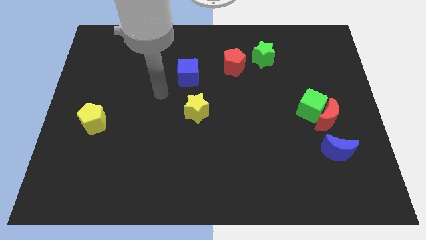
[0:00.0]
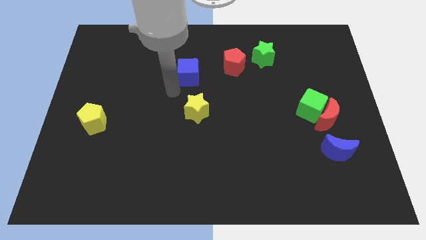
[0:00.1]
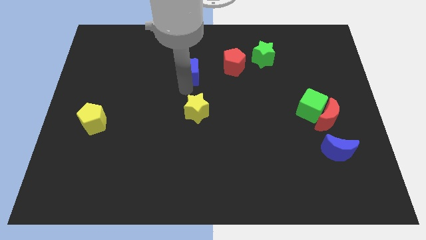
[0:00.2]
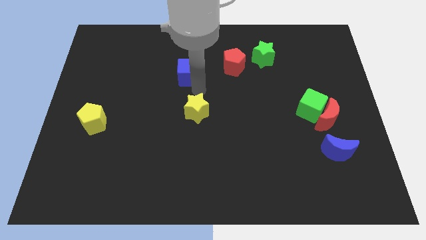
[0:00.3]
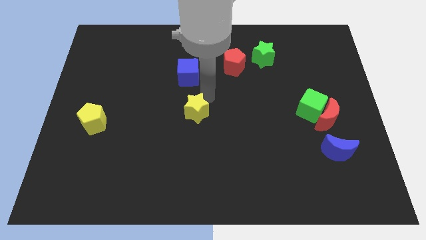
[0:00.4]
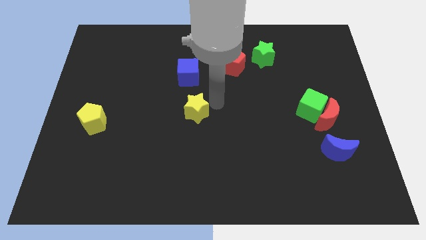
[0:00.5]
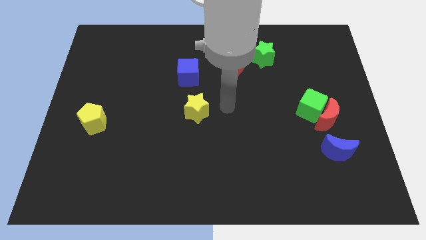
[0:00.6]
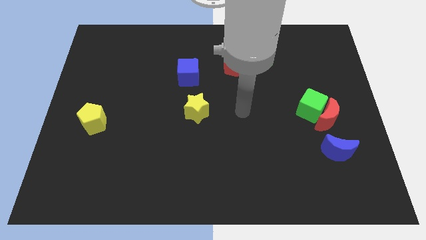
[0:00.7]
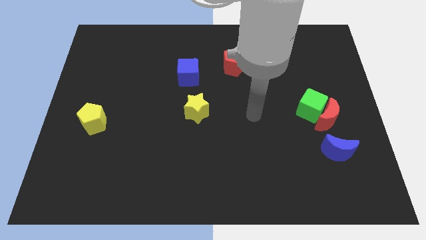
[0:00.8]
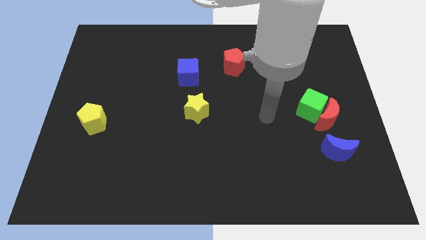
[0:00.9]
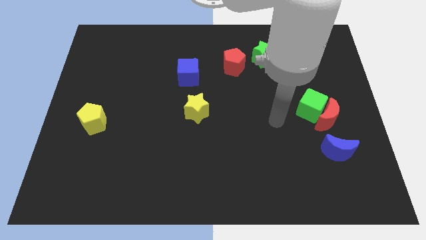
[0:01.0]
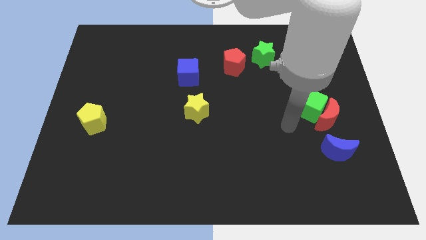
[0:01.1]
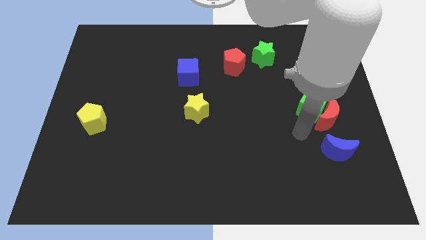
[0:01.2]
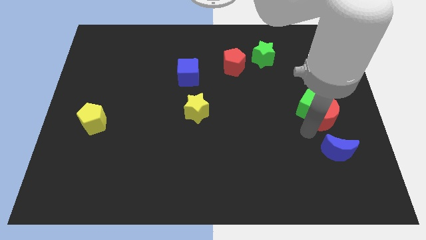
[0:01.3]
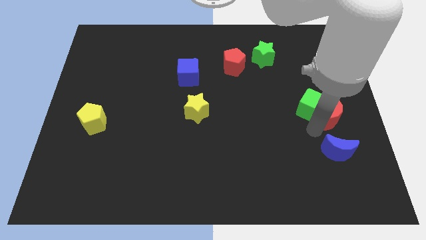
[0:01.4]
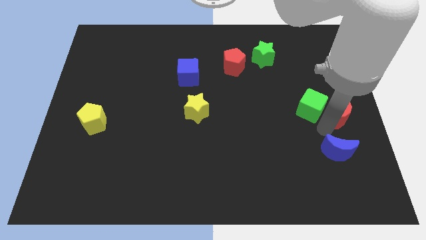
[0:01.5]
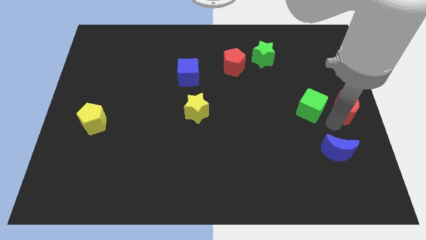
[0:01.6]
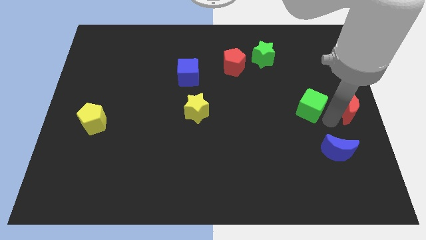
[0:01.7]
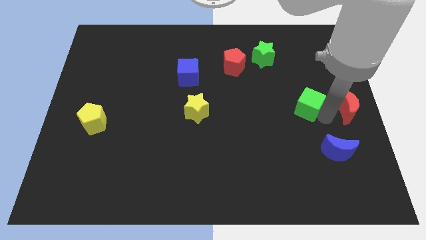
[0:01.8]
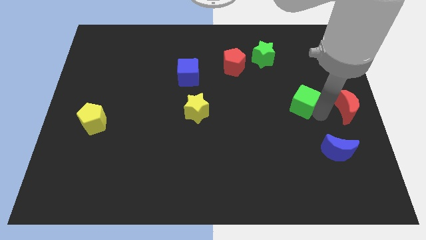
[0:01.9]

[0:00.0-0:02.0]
separate the green cube from the red moon

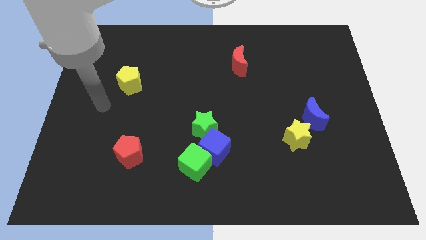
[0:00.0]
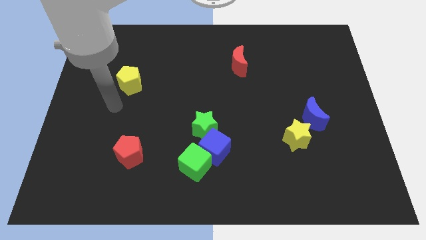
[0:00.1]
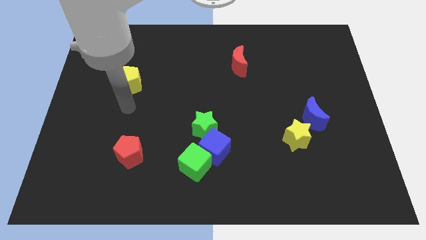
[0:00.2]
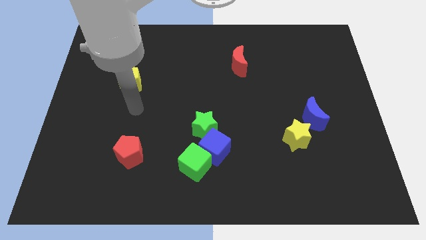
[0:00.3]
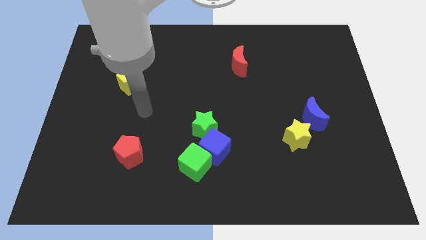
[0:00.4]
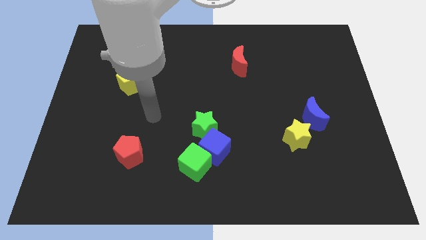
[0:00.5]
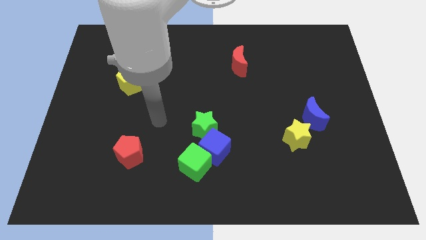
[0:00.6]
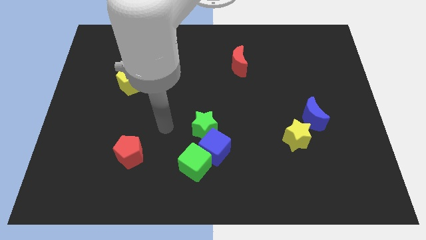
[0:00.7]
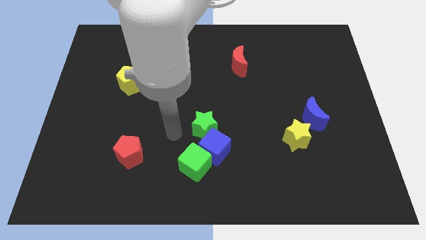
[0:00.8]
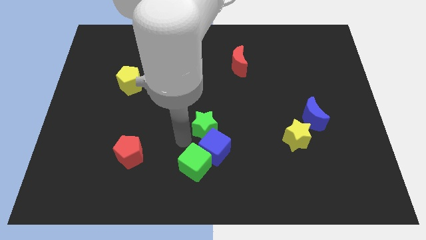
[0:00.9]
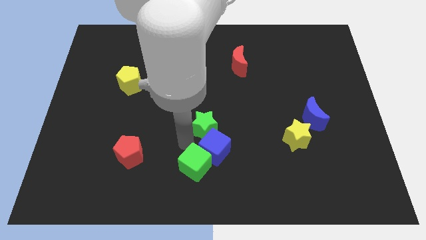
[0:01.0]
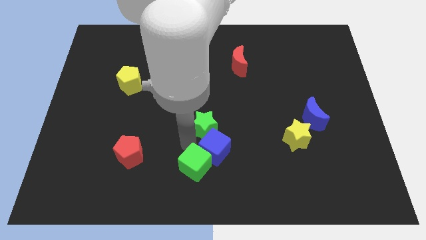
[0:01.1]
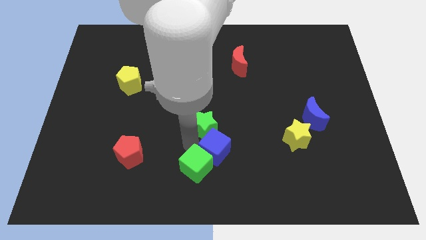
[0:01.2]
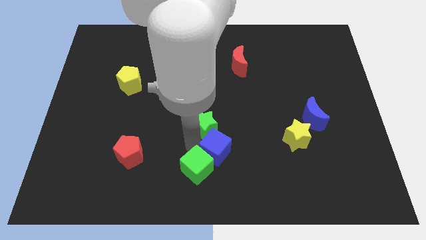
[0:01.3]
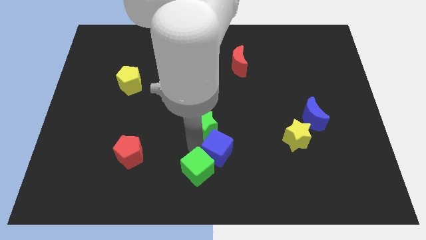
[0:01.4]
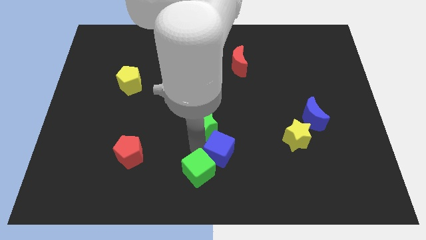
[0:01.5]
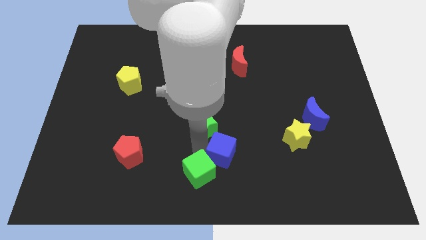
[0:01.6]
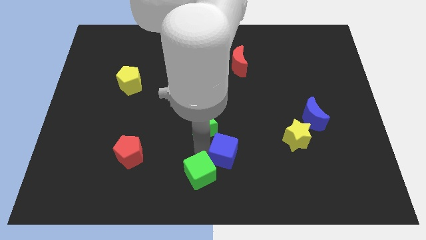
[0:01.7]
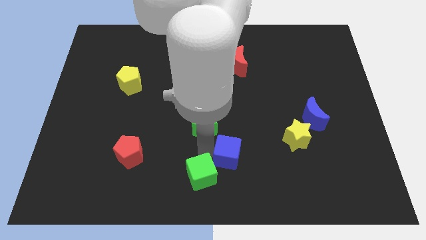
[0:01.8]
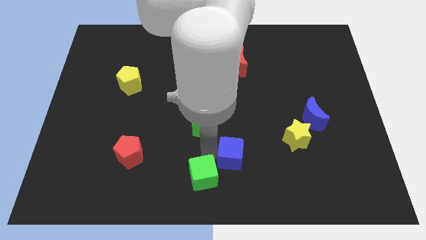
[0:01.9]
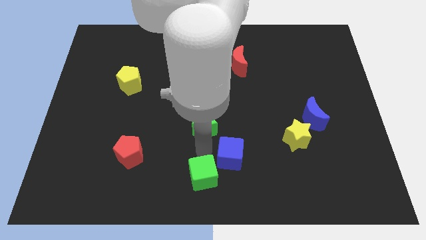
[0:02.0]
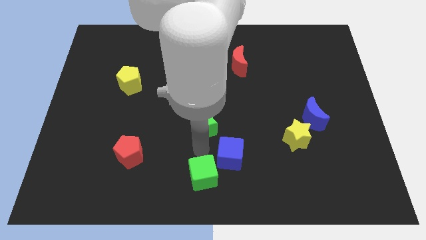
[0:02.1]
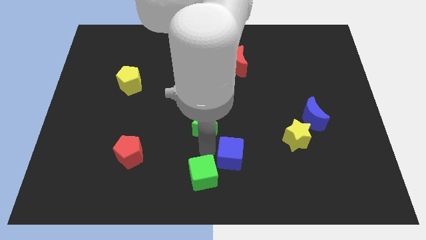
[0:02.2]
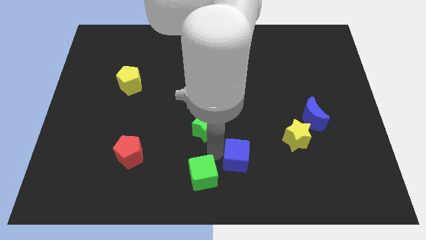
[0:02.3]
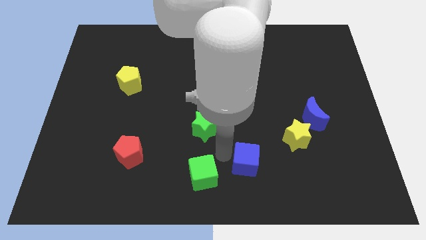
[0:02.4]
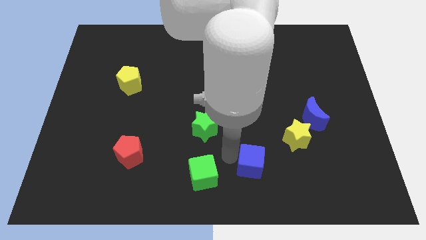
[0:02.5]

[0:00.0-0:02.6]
separate the blue cube from the green cube and green star

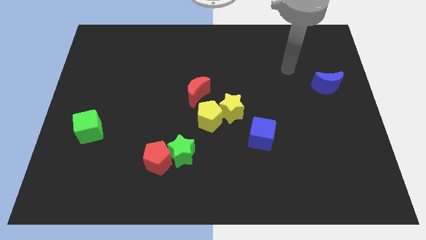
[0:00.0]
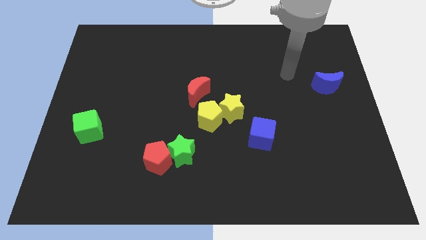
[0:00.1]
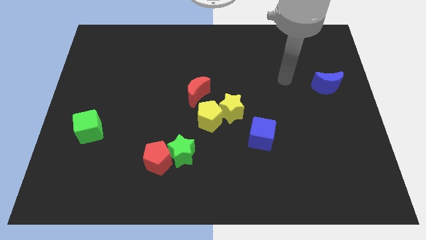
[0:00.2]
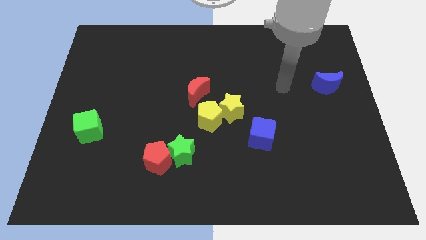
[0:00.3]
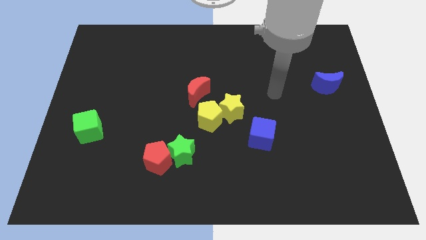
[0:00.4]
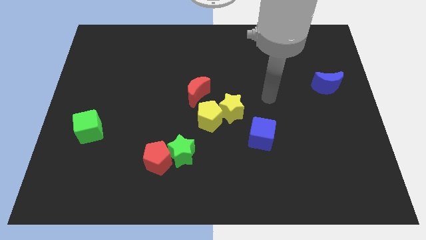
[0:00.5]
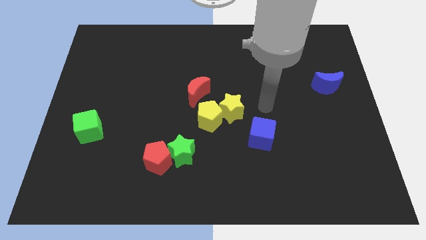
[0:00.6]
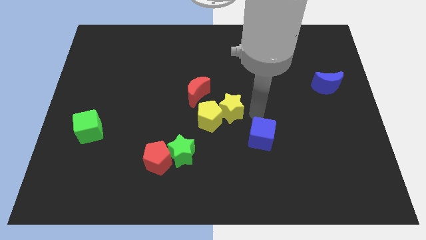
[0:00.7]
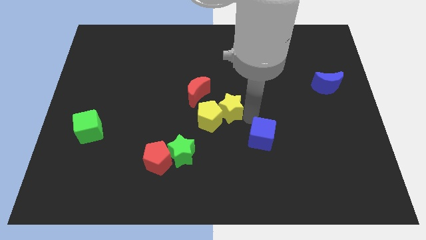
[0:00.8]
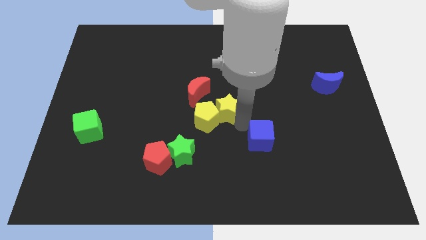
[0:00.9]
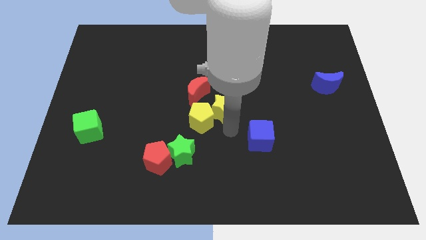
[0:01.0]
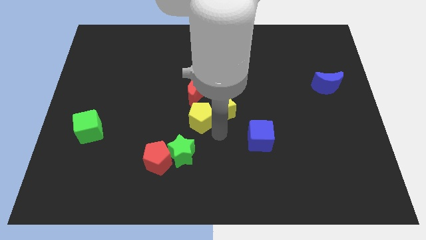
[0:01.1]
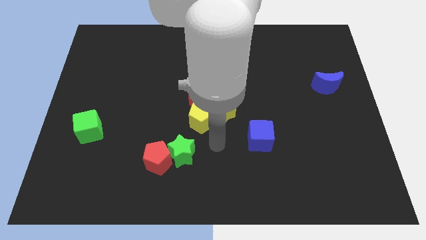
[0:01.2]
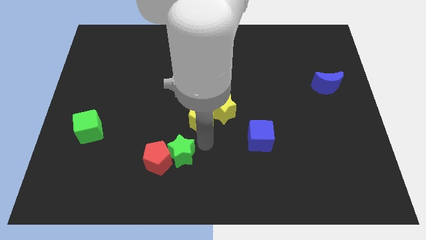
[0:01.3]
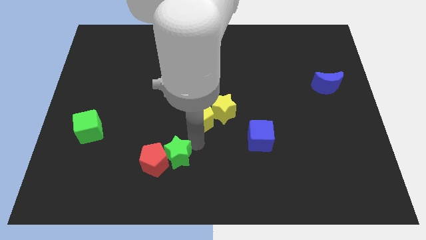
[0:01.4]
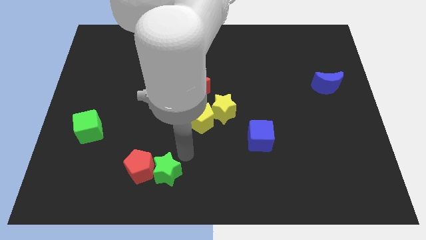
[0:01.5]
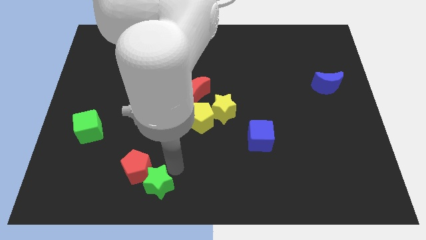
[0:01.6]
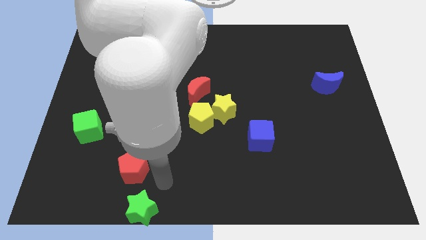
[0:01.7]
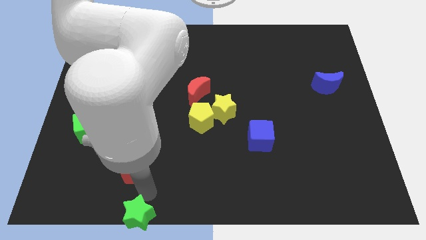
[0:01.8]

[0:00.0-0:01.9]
pull the red pentagon apart from the green star

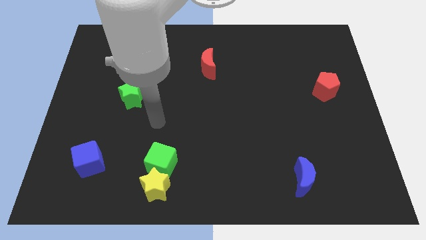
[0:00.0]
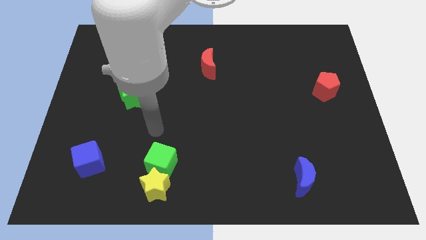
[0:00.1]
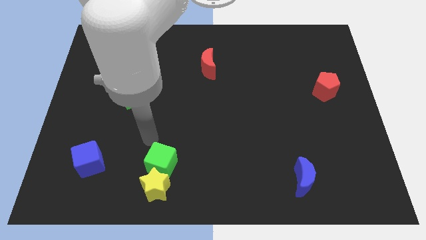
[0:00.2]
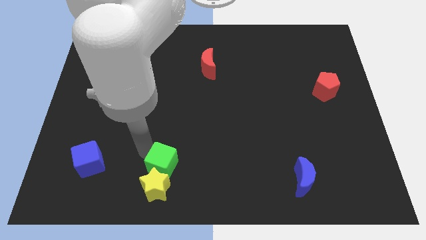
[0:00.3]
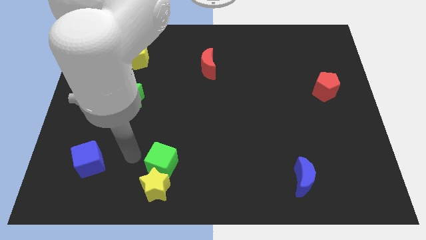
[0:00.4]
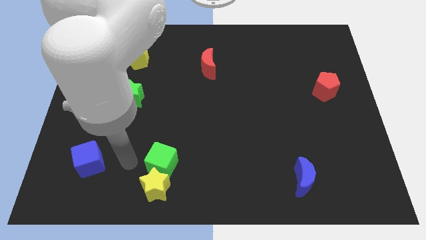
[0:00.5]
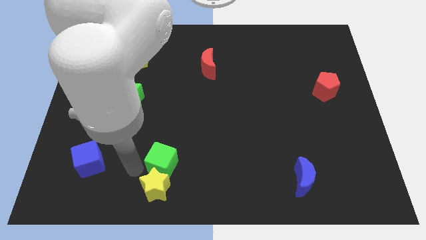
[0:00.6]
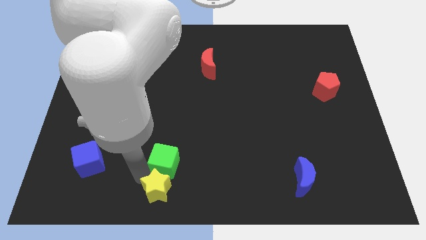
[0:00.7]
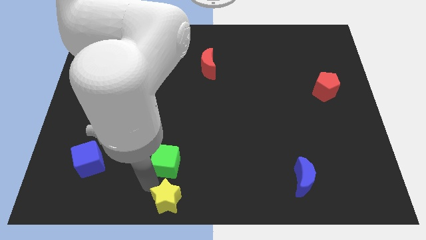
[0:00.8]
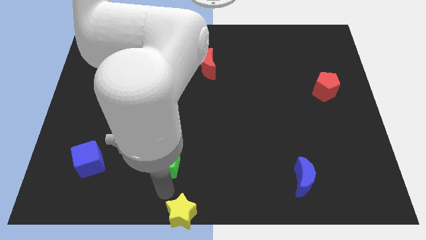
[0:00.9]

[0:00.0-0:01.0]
move the green cube away from the yellow star

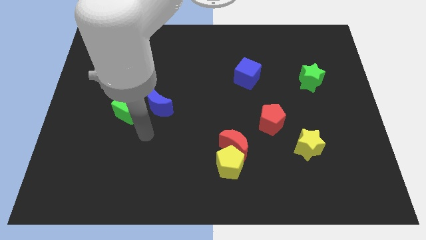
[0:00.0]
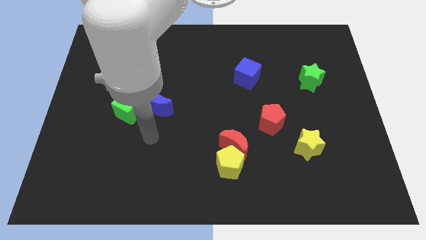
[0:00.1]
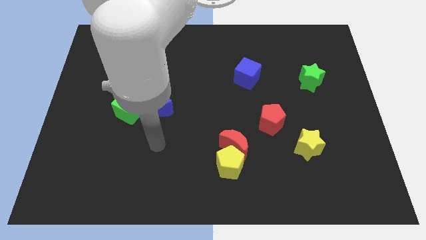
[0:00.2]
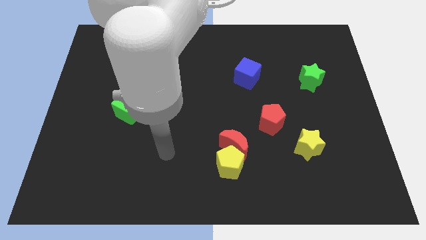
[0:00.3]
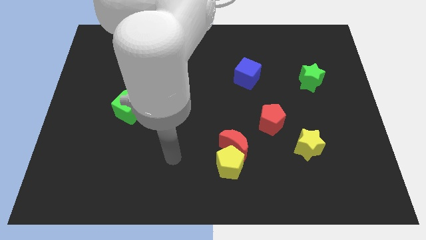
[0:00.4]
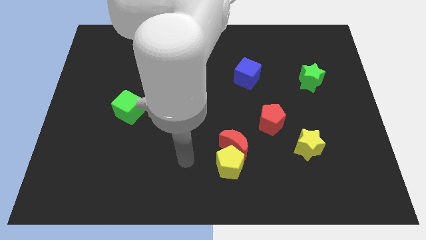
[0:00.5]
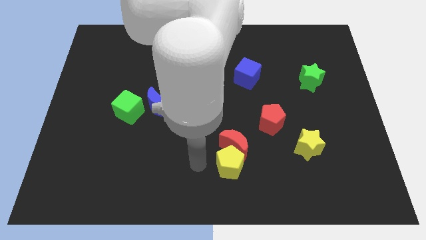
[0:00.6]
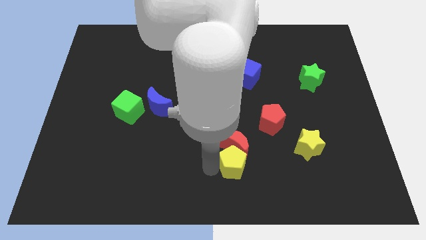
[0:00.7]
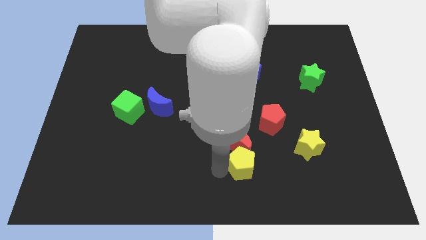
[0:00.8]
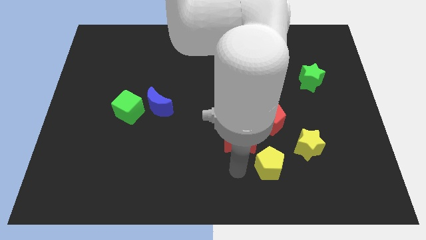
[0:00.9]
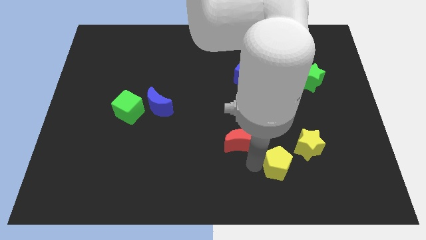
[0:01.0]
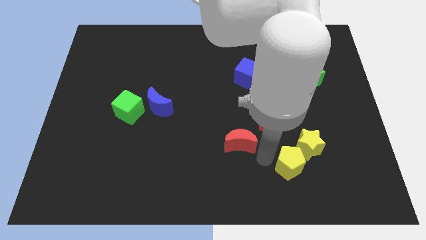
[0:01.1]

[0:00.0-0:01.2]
separate the red moon from the yellow pentagon

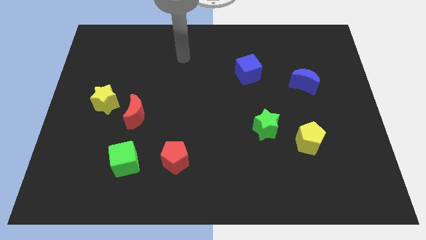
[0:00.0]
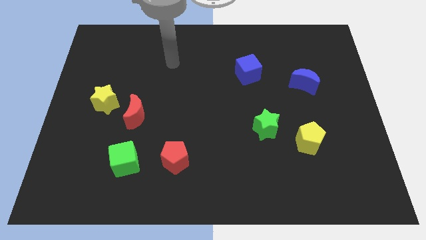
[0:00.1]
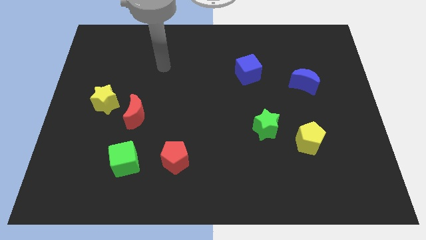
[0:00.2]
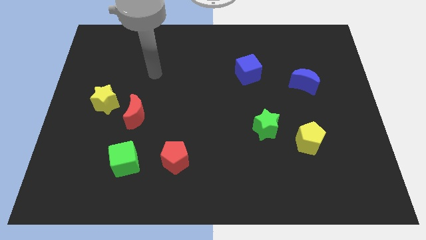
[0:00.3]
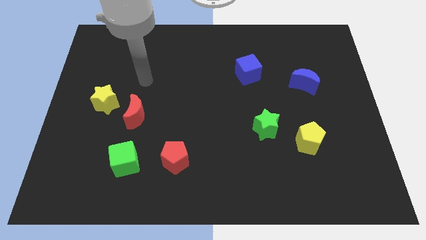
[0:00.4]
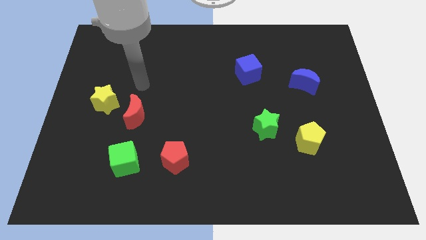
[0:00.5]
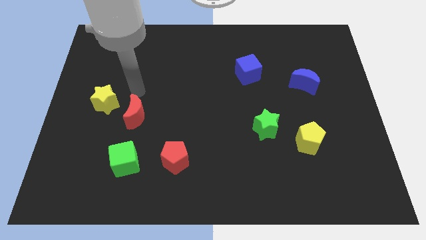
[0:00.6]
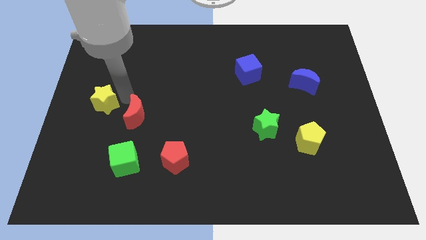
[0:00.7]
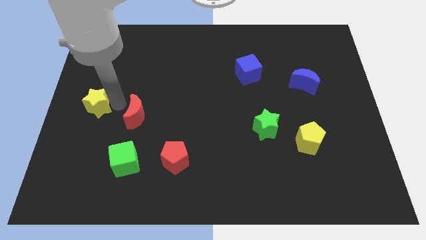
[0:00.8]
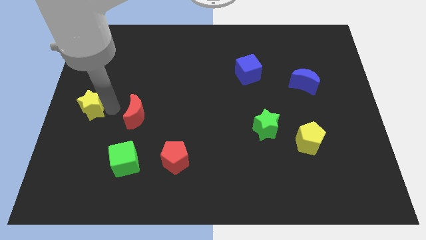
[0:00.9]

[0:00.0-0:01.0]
move the red moon away from the yellow star
